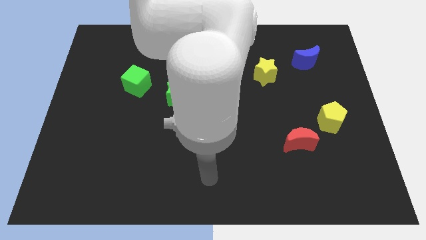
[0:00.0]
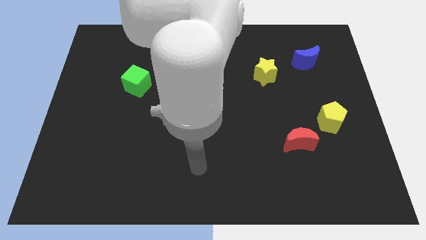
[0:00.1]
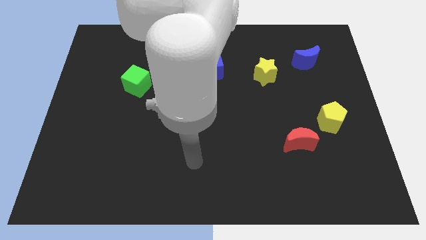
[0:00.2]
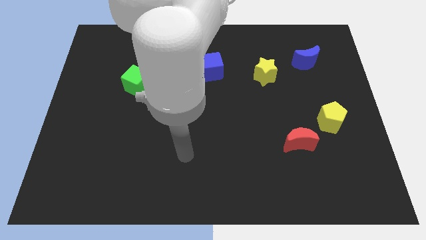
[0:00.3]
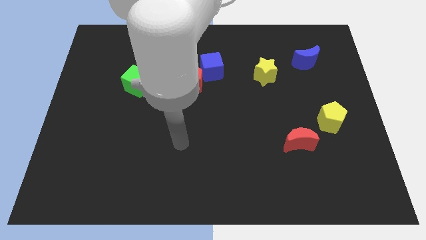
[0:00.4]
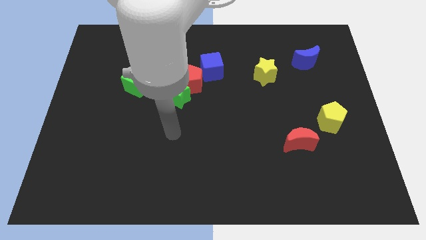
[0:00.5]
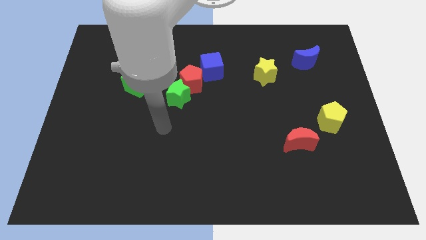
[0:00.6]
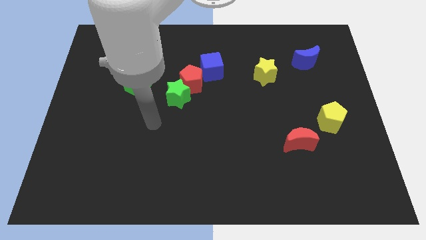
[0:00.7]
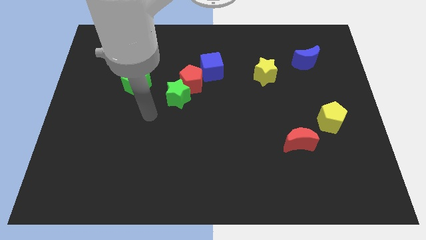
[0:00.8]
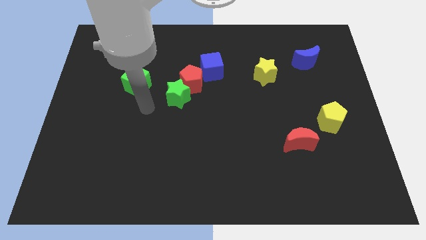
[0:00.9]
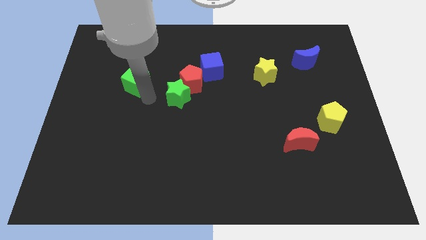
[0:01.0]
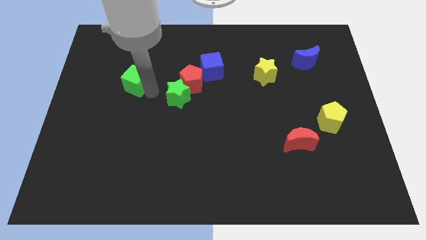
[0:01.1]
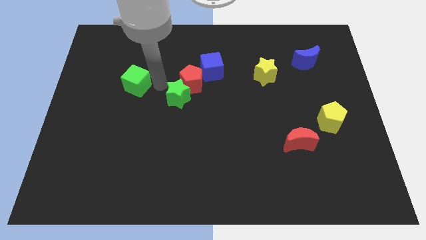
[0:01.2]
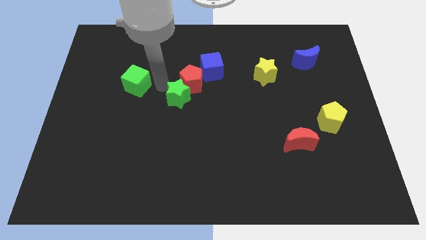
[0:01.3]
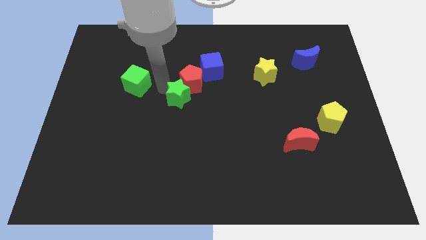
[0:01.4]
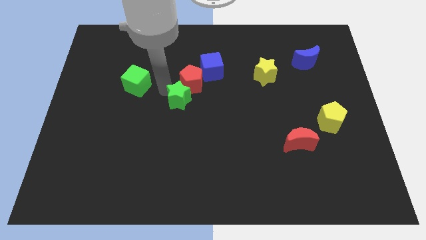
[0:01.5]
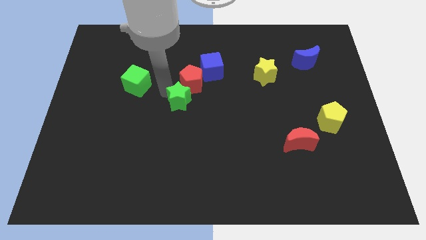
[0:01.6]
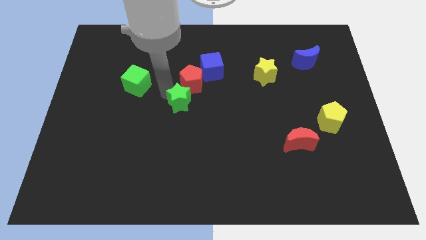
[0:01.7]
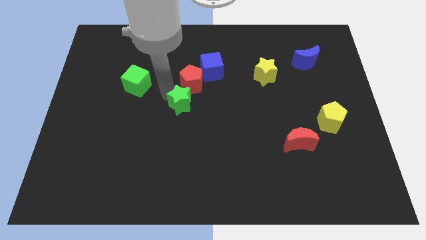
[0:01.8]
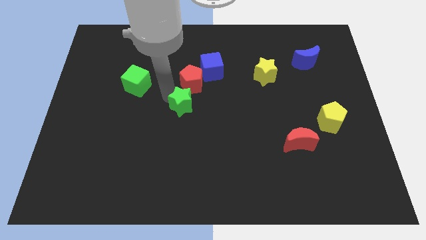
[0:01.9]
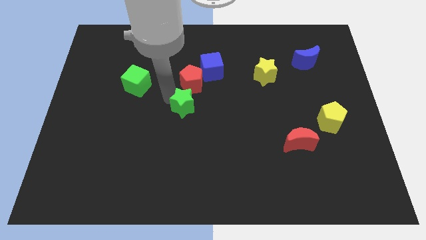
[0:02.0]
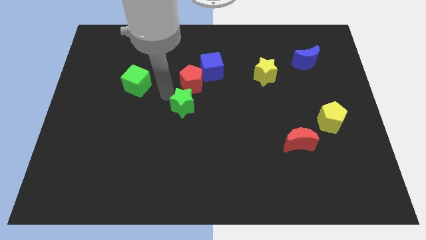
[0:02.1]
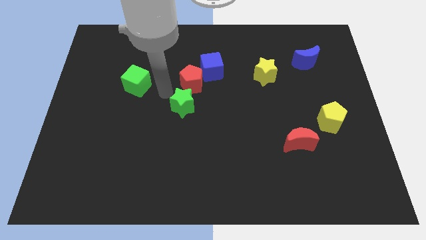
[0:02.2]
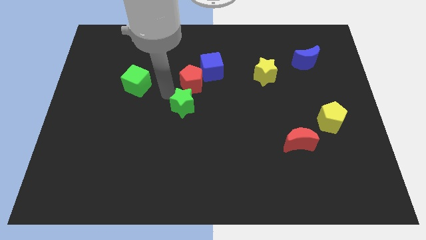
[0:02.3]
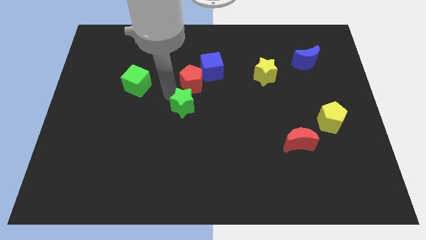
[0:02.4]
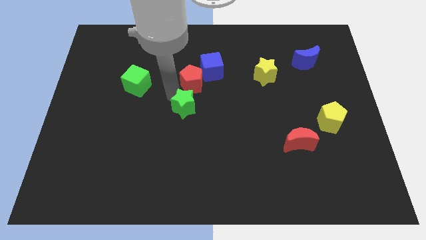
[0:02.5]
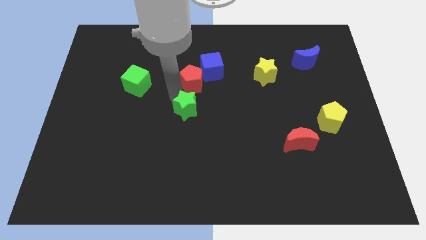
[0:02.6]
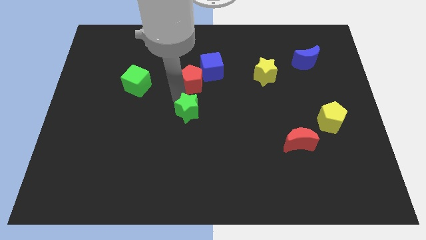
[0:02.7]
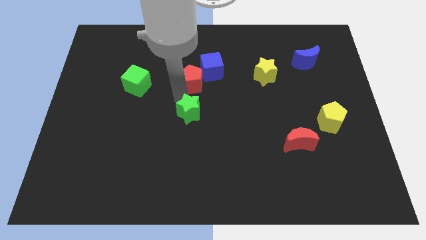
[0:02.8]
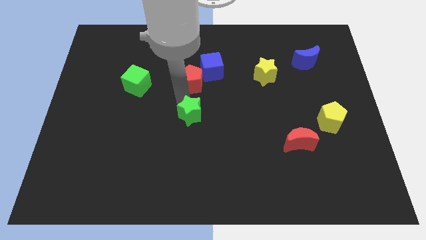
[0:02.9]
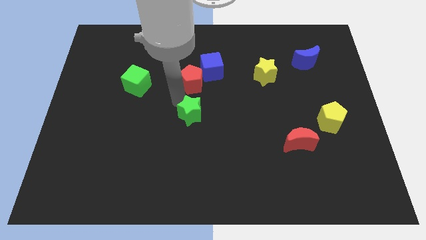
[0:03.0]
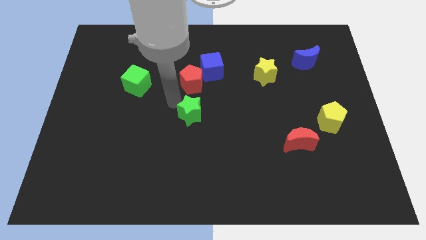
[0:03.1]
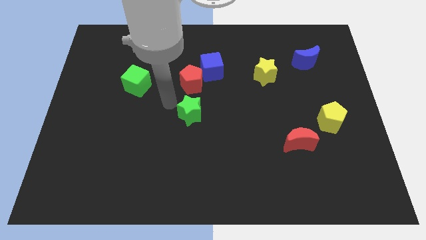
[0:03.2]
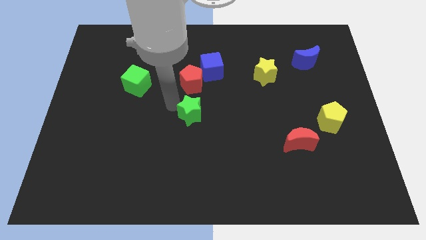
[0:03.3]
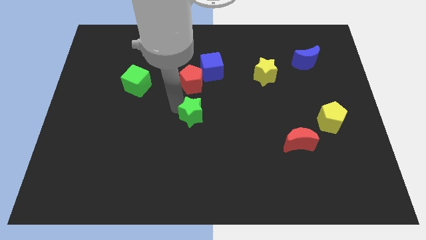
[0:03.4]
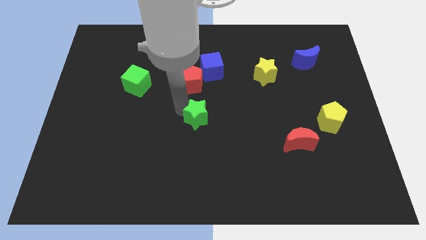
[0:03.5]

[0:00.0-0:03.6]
push the green star downwards and then to the right a bit

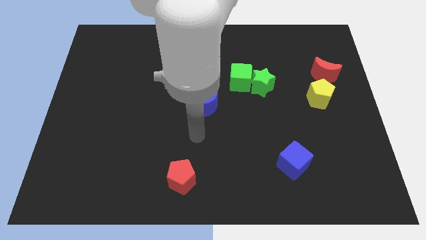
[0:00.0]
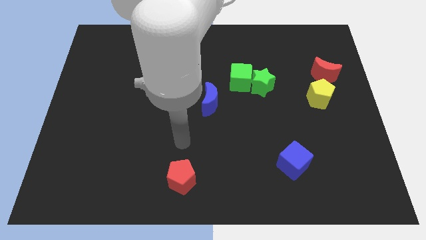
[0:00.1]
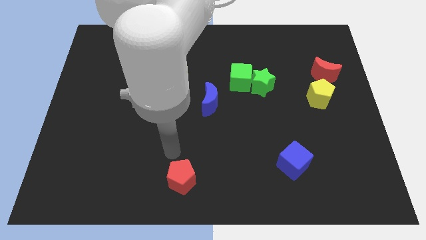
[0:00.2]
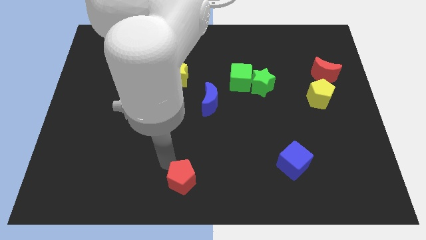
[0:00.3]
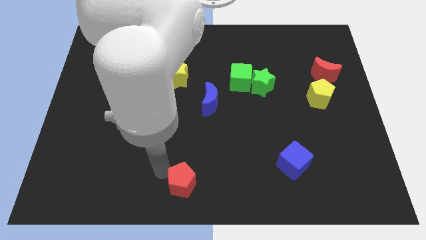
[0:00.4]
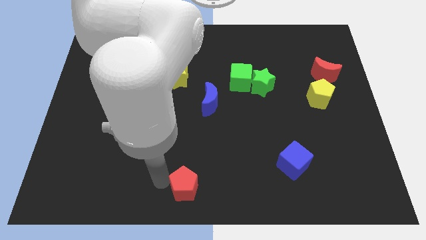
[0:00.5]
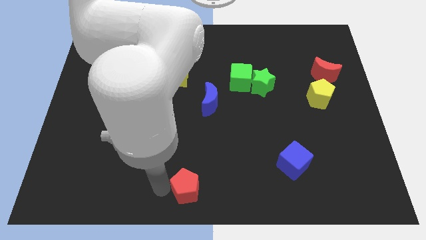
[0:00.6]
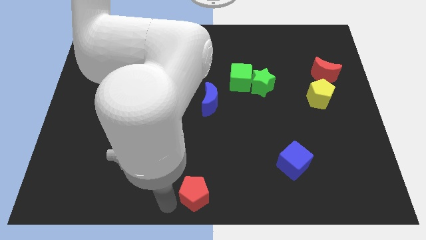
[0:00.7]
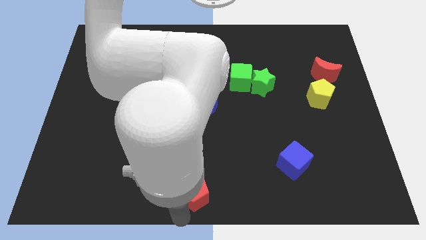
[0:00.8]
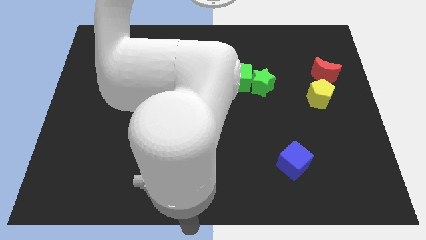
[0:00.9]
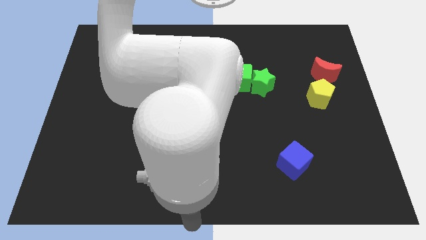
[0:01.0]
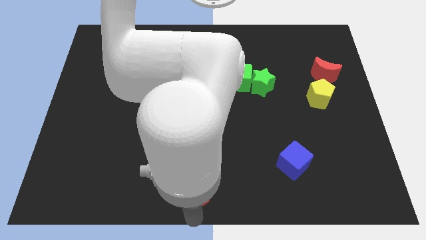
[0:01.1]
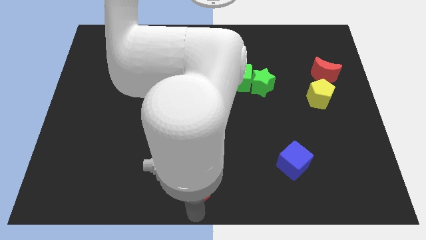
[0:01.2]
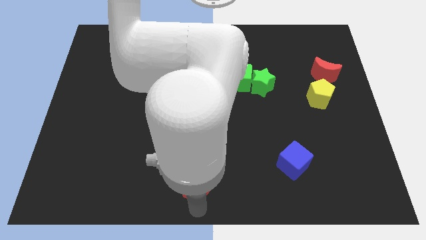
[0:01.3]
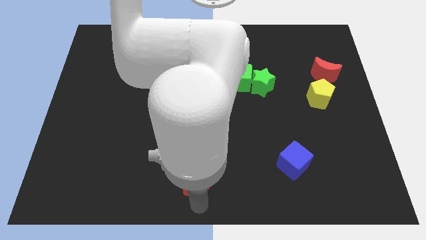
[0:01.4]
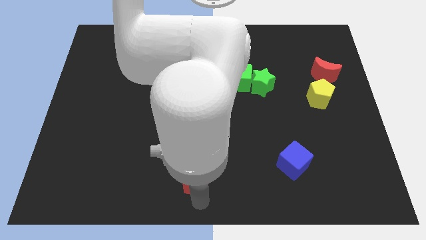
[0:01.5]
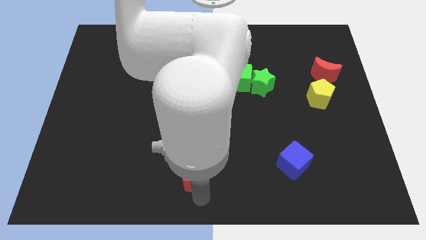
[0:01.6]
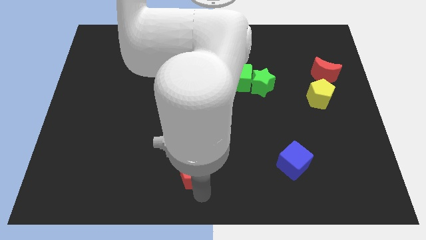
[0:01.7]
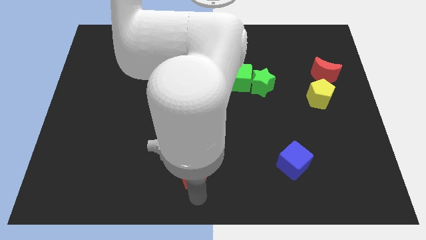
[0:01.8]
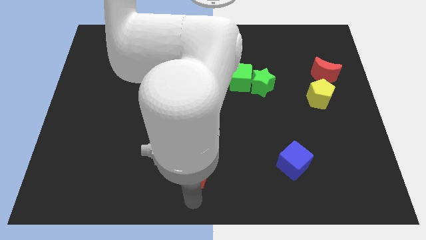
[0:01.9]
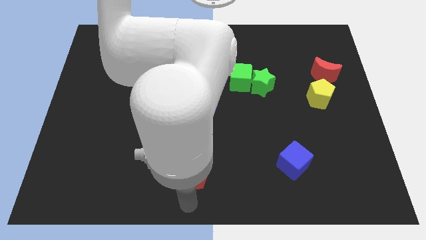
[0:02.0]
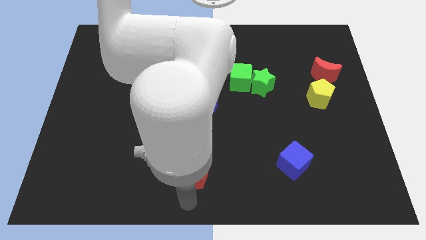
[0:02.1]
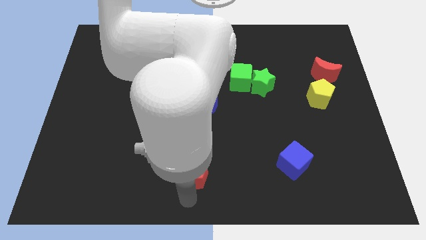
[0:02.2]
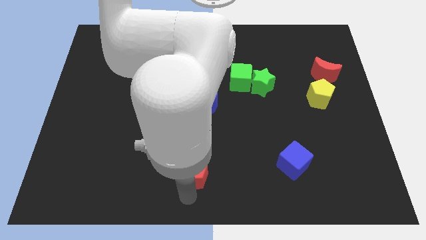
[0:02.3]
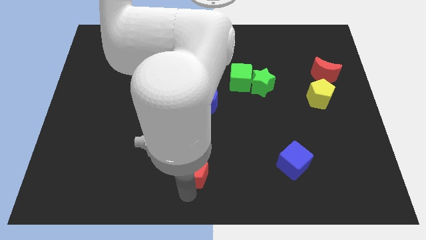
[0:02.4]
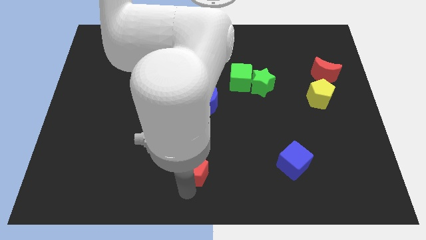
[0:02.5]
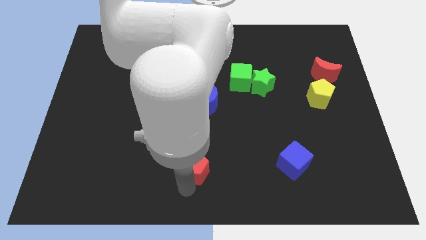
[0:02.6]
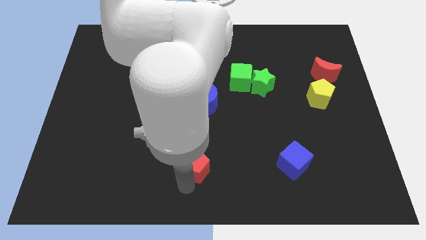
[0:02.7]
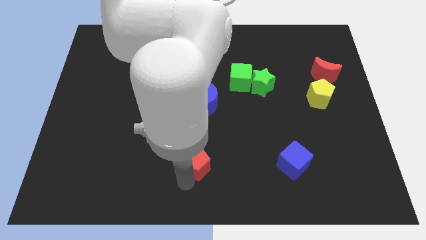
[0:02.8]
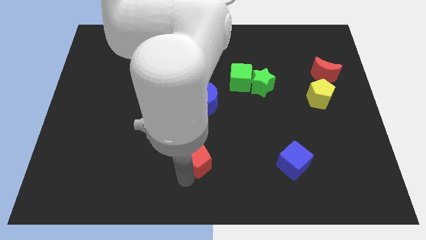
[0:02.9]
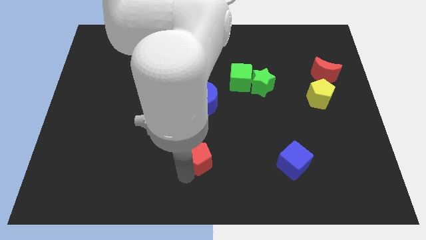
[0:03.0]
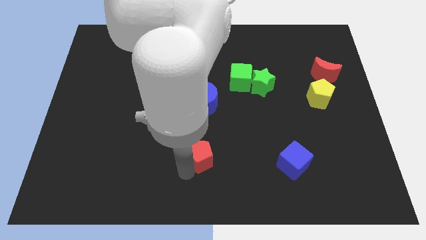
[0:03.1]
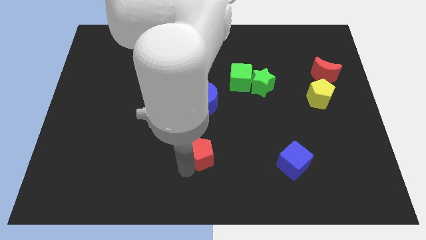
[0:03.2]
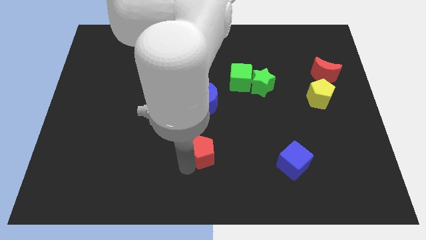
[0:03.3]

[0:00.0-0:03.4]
slightly move the red pentagon diagonally up and to the right

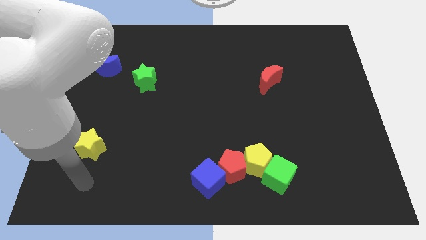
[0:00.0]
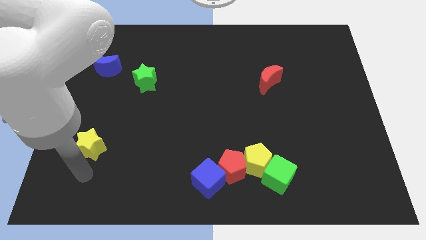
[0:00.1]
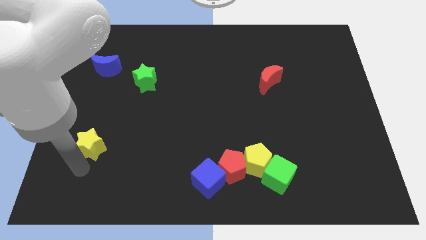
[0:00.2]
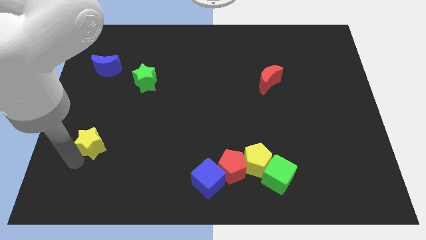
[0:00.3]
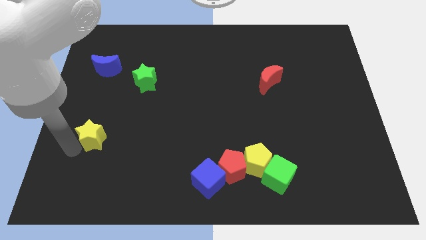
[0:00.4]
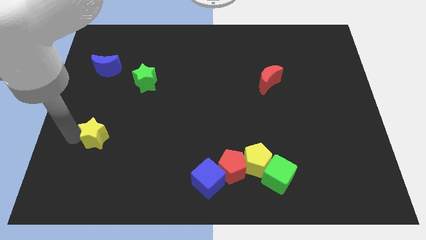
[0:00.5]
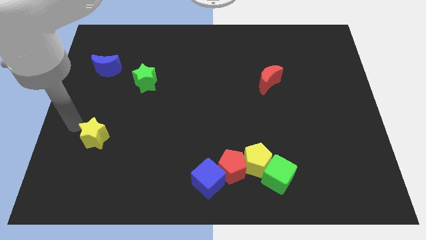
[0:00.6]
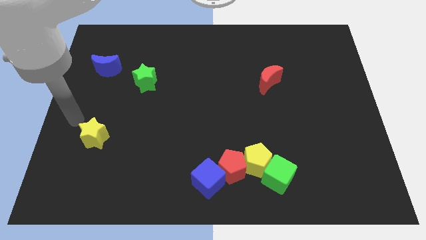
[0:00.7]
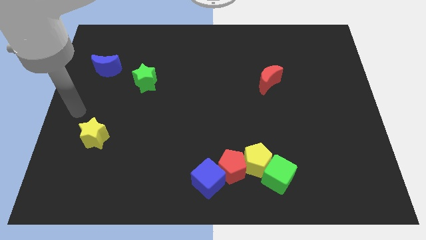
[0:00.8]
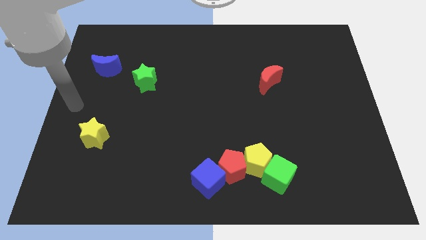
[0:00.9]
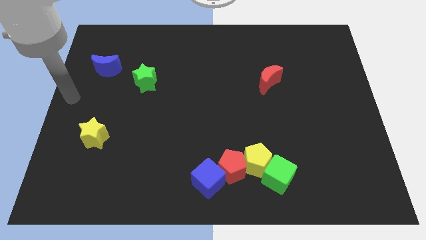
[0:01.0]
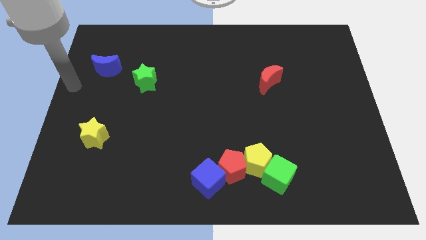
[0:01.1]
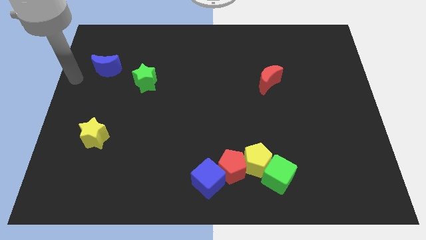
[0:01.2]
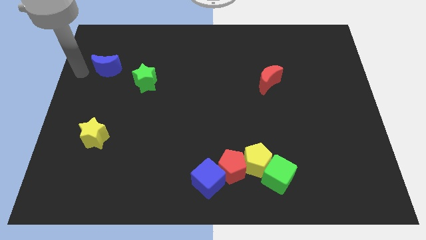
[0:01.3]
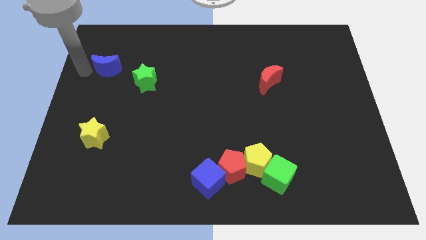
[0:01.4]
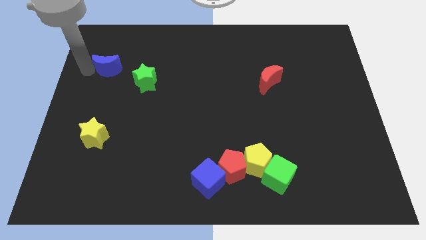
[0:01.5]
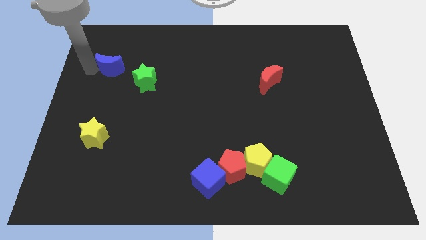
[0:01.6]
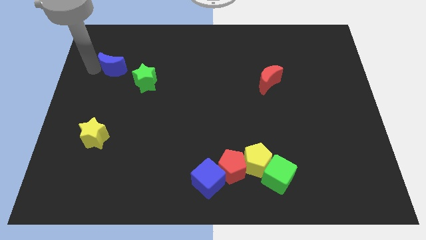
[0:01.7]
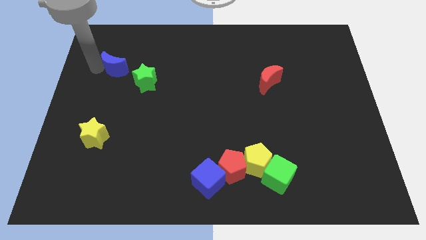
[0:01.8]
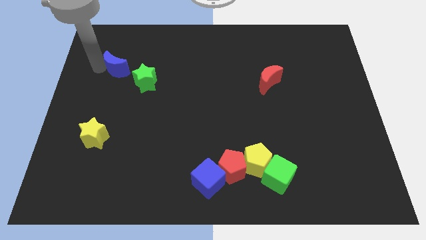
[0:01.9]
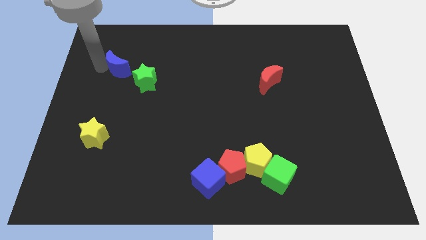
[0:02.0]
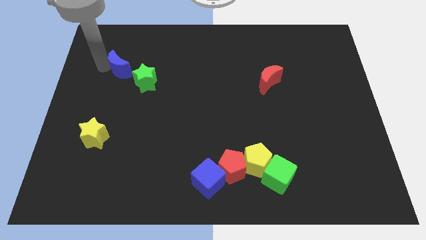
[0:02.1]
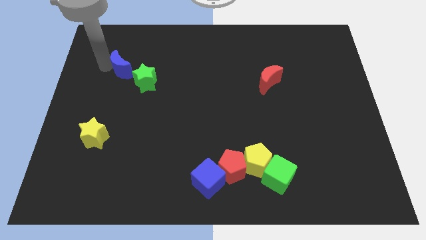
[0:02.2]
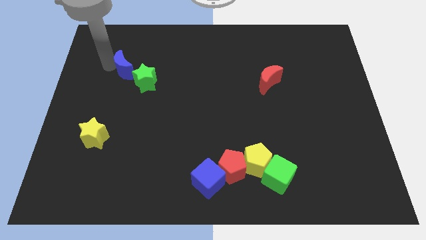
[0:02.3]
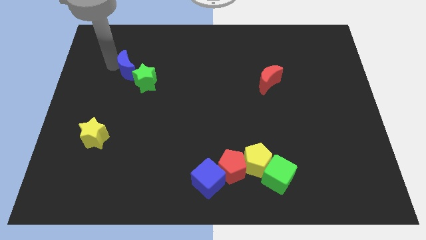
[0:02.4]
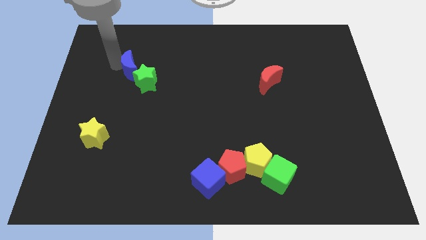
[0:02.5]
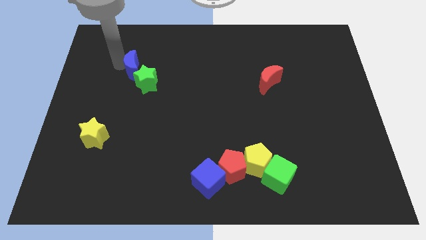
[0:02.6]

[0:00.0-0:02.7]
slide the blue moon a bit to the right
